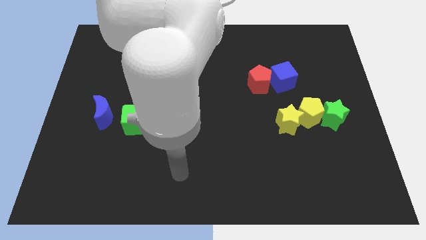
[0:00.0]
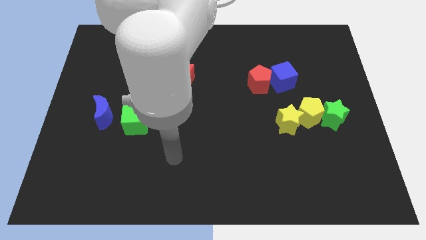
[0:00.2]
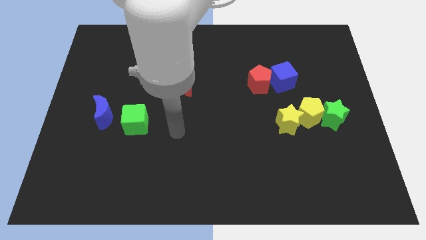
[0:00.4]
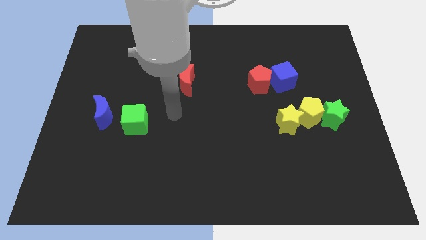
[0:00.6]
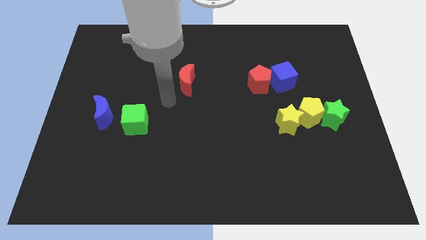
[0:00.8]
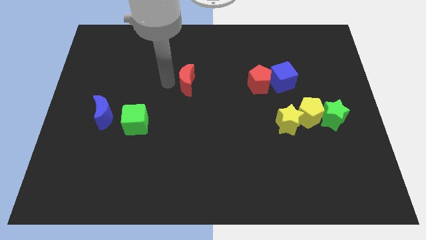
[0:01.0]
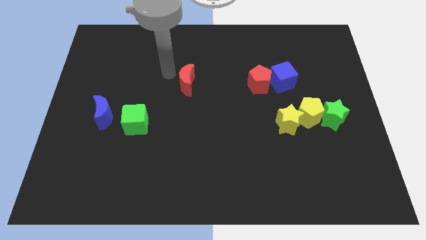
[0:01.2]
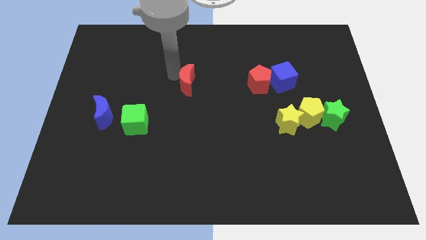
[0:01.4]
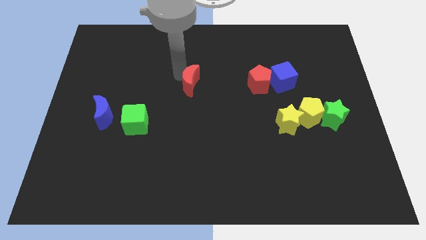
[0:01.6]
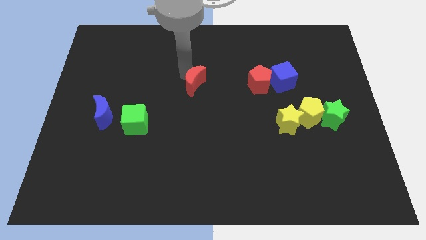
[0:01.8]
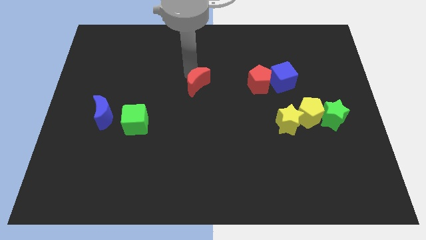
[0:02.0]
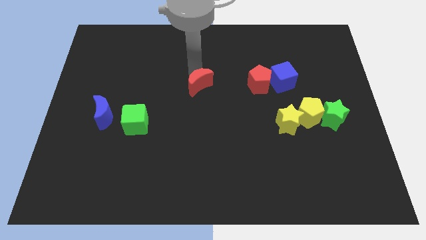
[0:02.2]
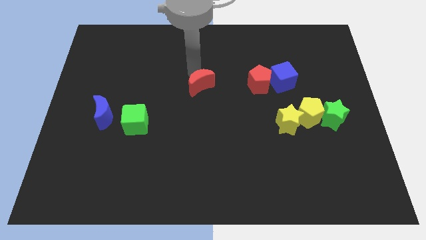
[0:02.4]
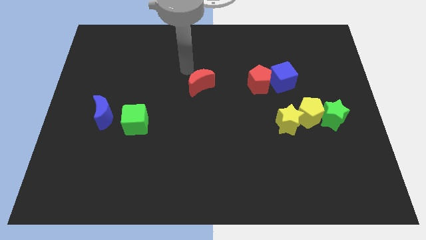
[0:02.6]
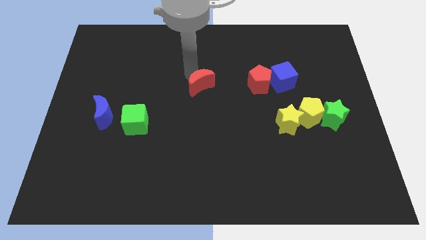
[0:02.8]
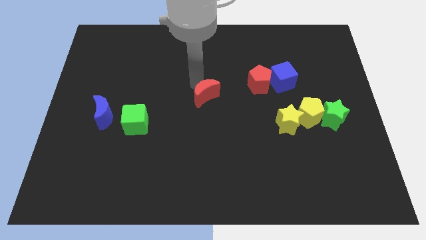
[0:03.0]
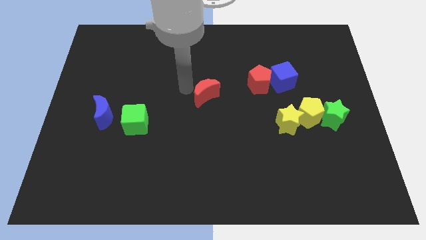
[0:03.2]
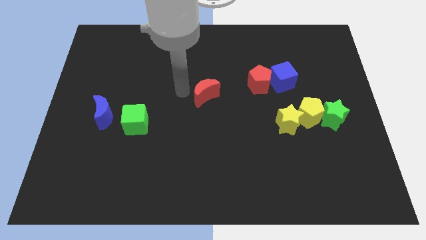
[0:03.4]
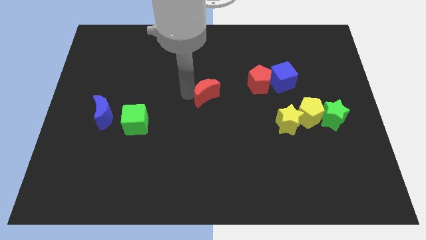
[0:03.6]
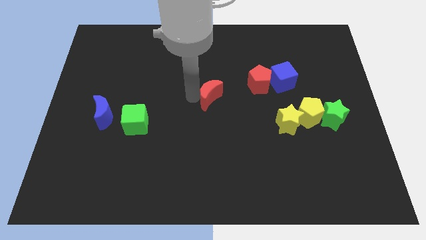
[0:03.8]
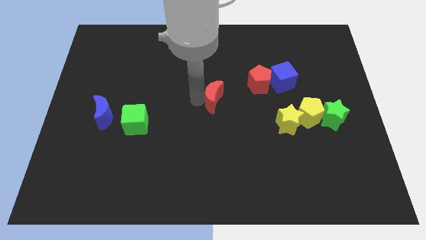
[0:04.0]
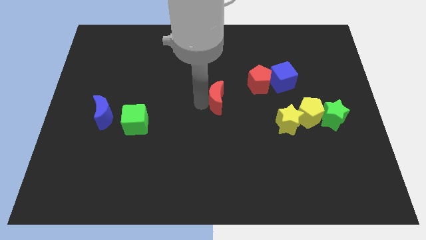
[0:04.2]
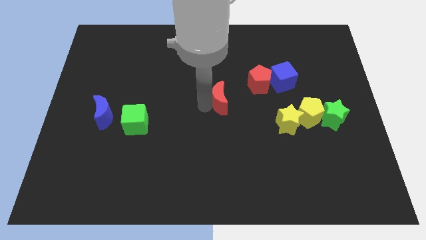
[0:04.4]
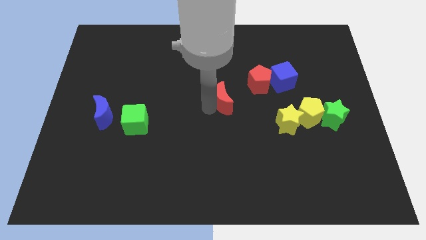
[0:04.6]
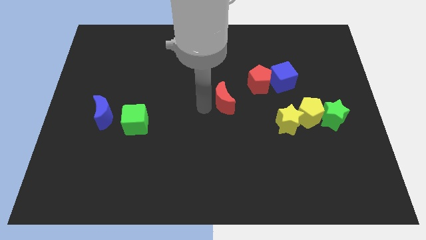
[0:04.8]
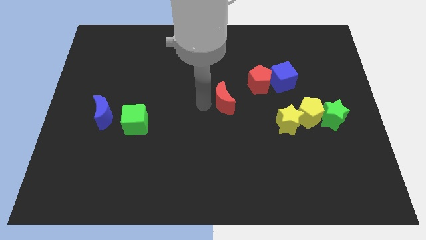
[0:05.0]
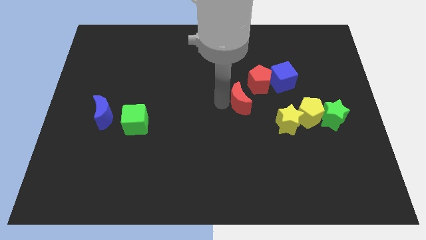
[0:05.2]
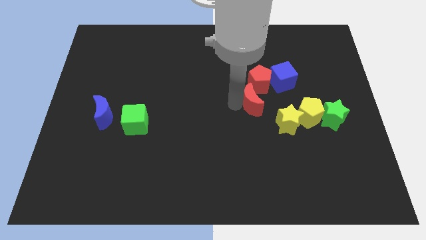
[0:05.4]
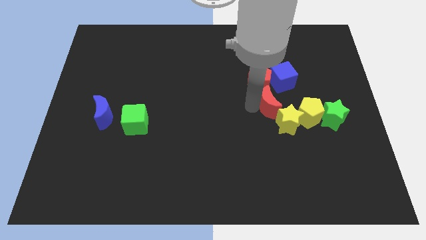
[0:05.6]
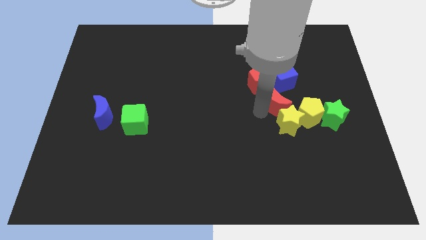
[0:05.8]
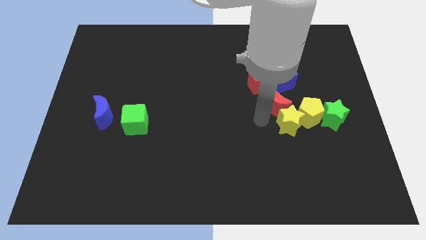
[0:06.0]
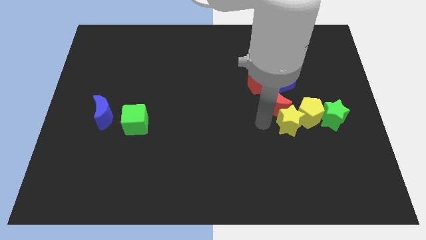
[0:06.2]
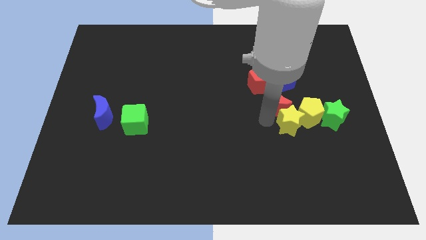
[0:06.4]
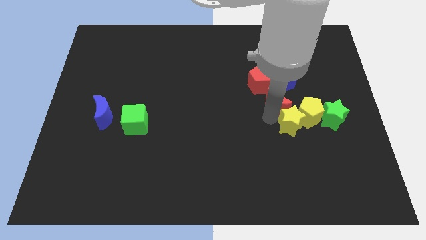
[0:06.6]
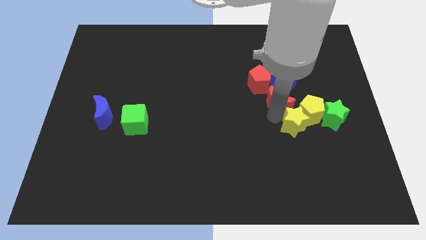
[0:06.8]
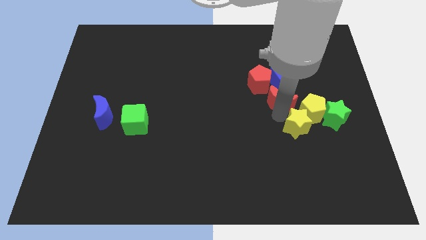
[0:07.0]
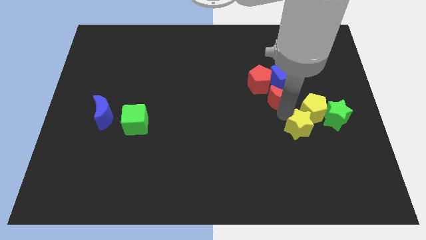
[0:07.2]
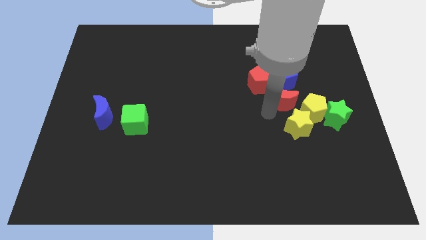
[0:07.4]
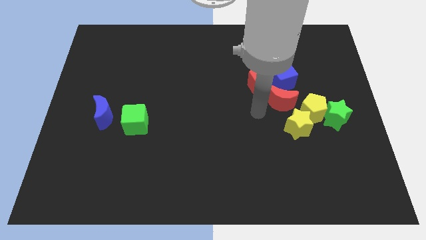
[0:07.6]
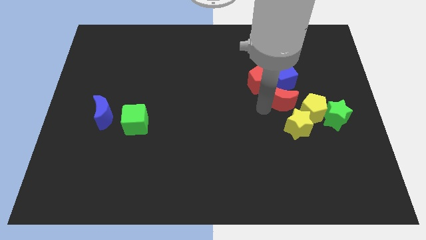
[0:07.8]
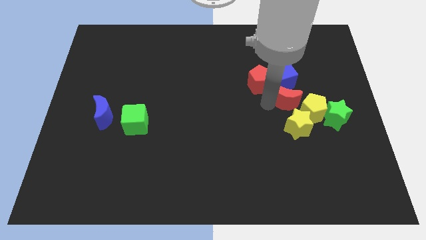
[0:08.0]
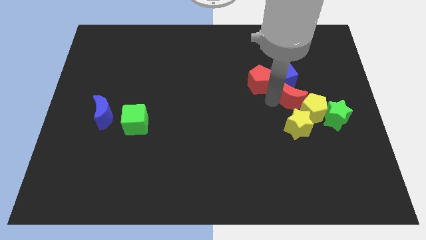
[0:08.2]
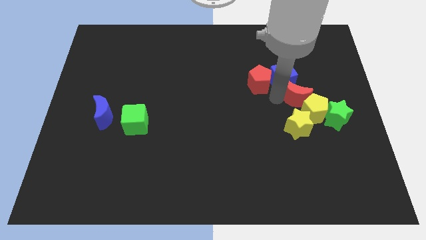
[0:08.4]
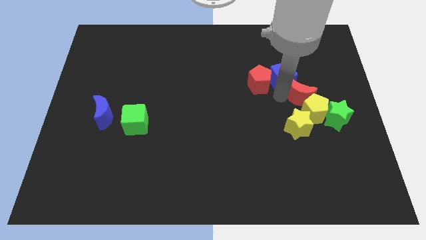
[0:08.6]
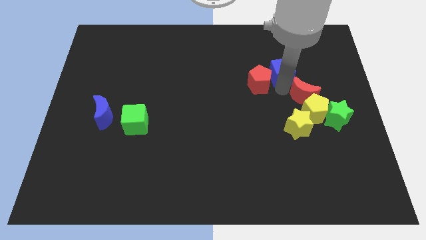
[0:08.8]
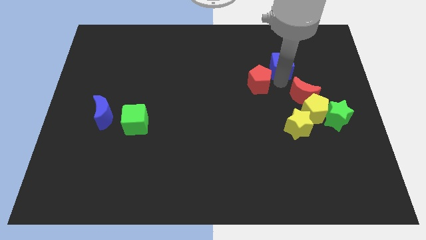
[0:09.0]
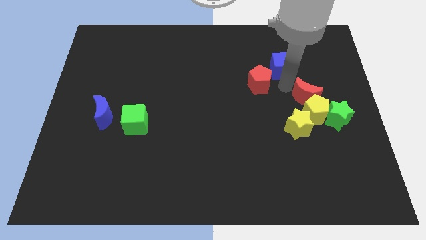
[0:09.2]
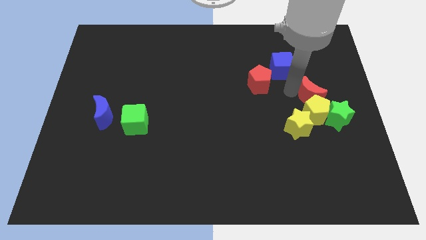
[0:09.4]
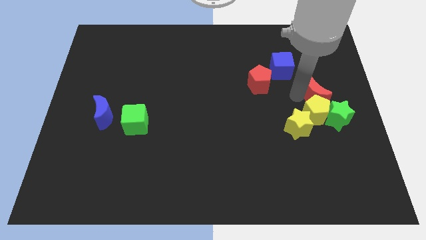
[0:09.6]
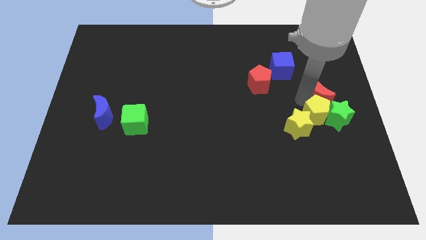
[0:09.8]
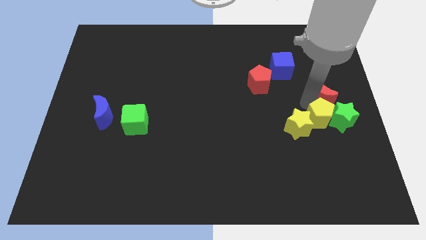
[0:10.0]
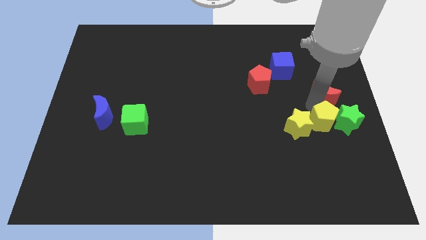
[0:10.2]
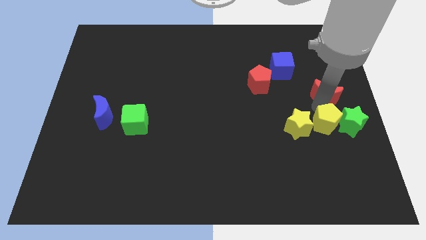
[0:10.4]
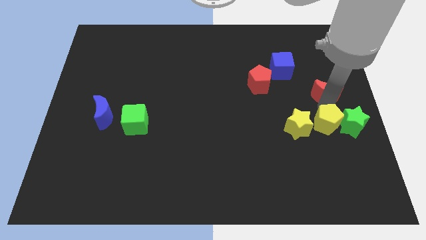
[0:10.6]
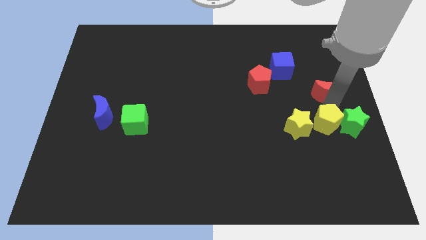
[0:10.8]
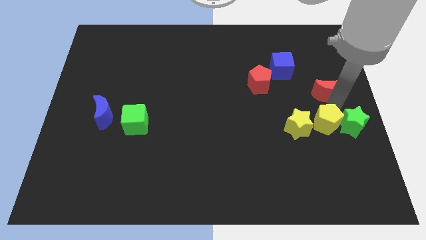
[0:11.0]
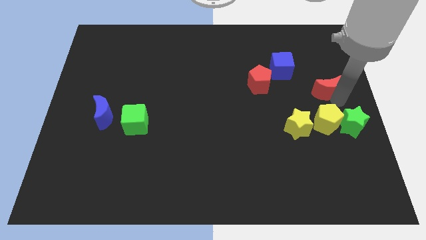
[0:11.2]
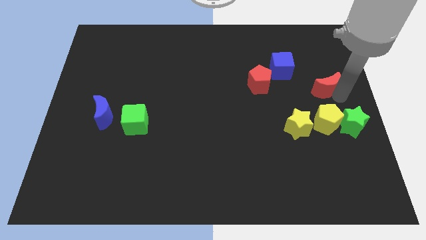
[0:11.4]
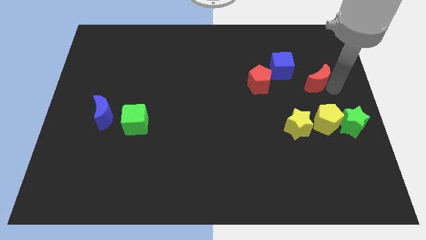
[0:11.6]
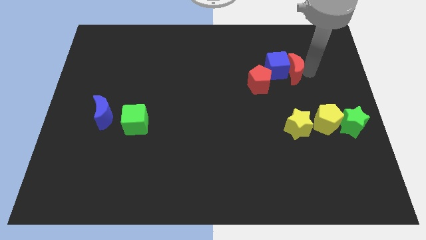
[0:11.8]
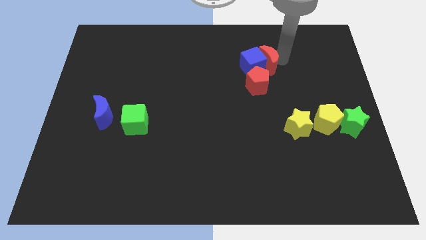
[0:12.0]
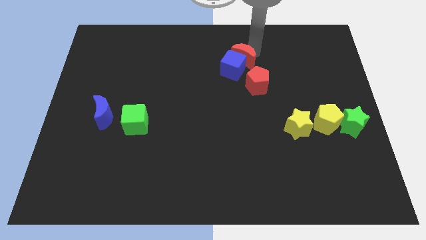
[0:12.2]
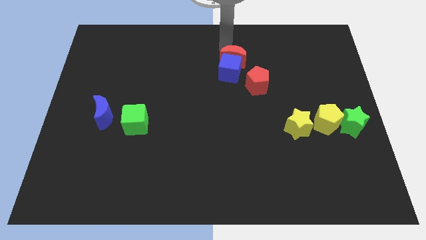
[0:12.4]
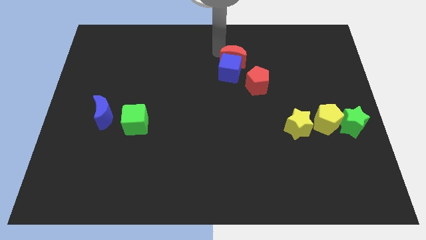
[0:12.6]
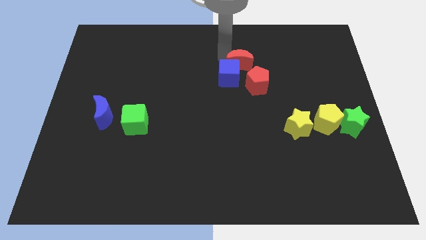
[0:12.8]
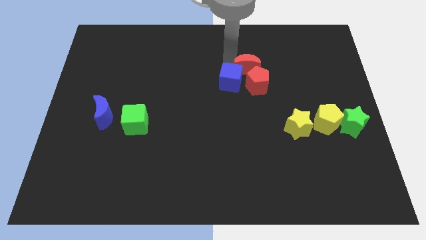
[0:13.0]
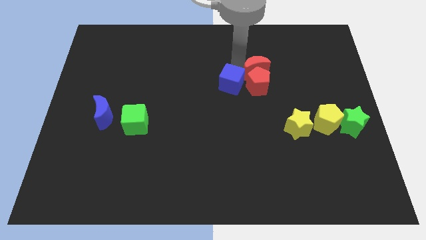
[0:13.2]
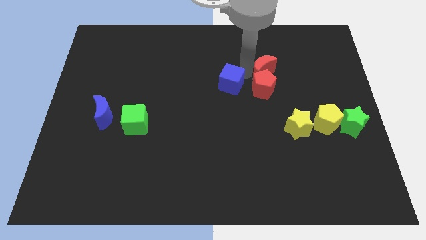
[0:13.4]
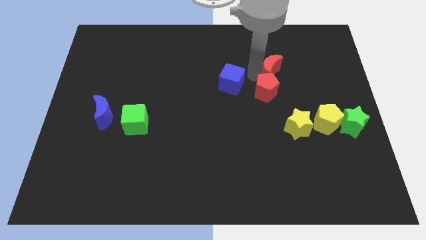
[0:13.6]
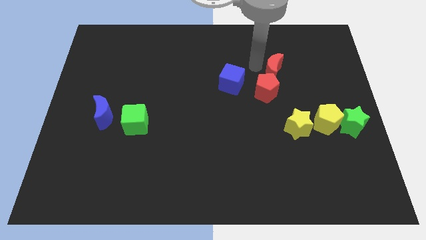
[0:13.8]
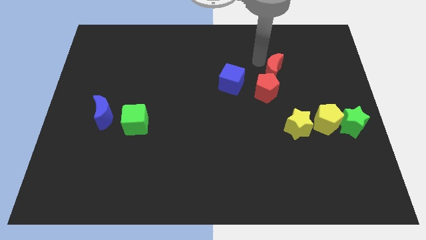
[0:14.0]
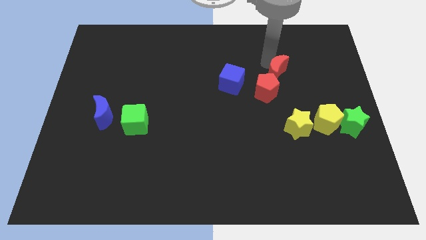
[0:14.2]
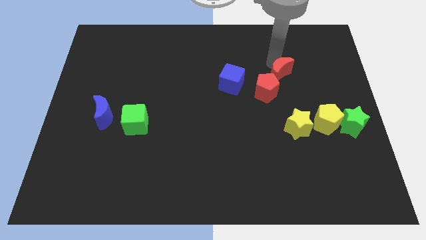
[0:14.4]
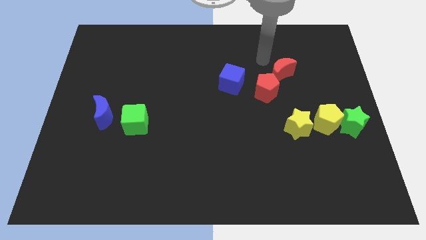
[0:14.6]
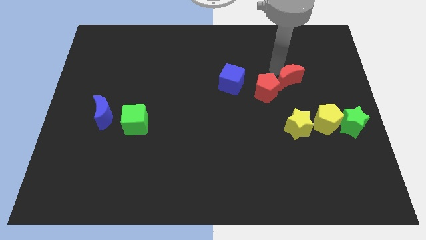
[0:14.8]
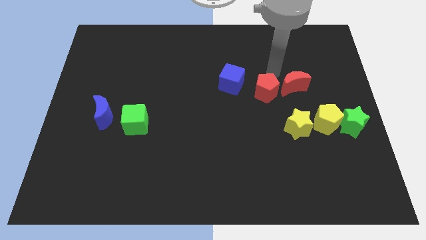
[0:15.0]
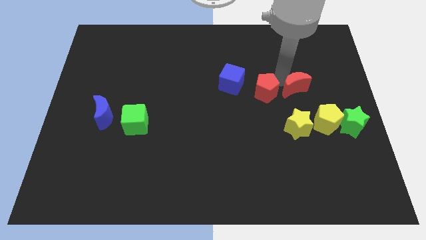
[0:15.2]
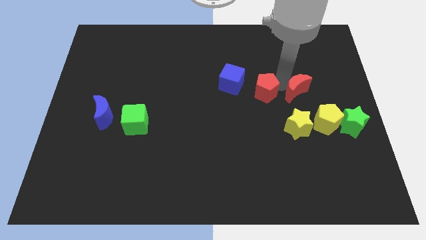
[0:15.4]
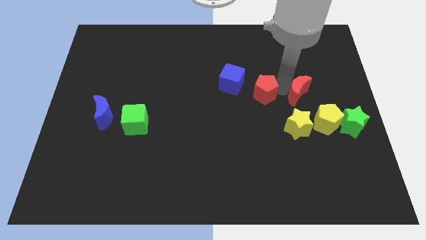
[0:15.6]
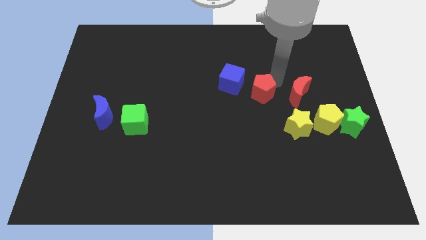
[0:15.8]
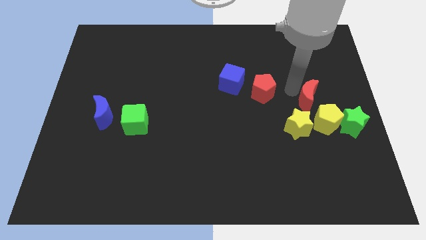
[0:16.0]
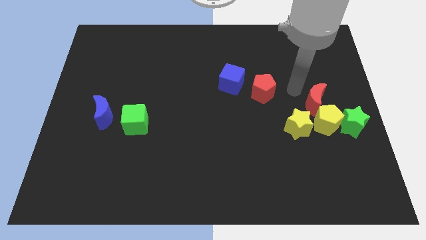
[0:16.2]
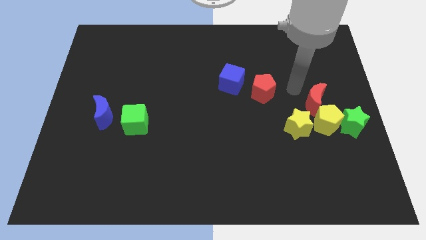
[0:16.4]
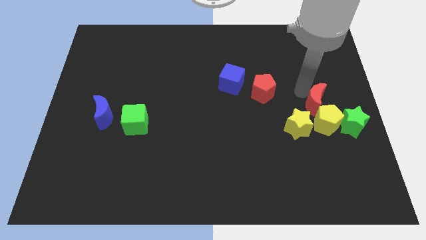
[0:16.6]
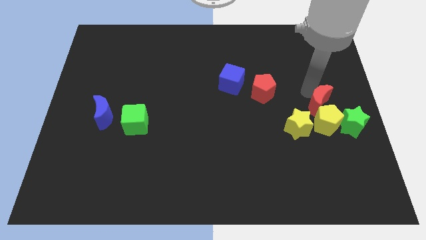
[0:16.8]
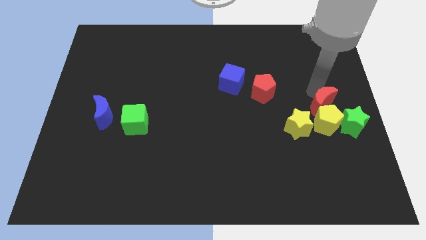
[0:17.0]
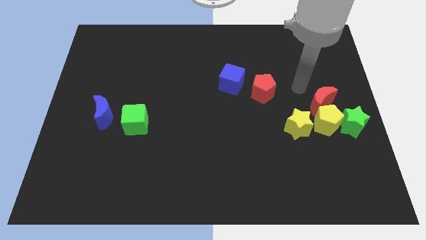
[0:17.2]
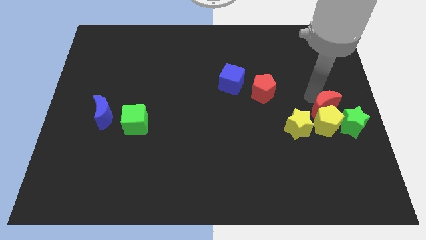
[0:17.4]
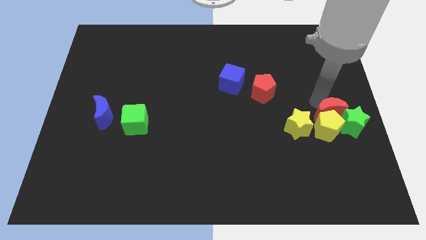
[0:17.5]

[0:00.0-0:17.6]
push the red moon next to the green star
